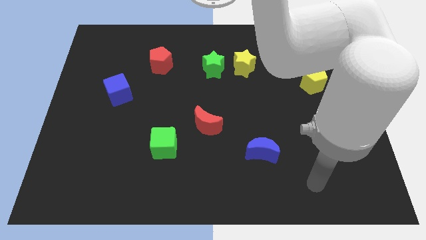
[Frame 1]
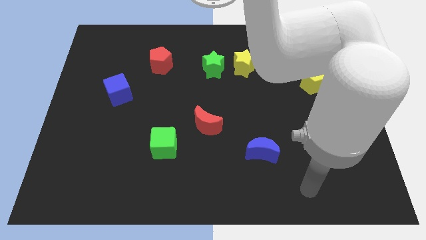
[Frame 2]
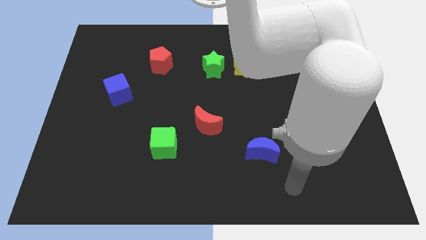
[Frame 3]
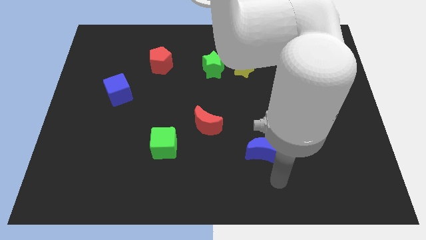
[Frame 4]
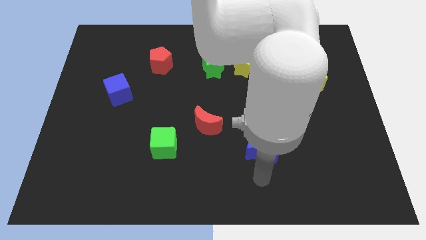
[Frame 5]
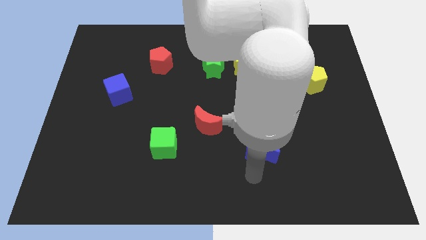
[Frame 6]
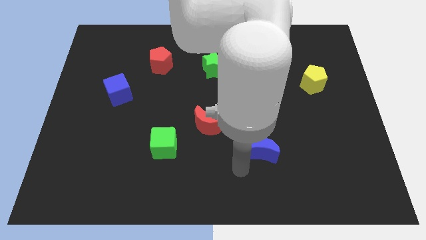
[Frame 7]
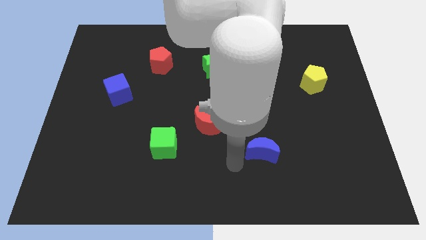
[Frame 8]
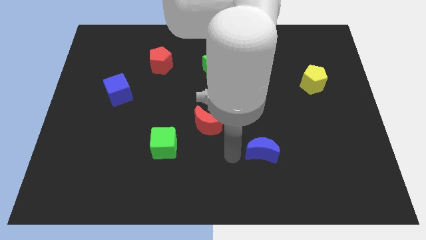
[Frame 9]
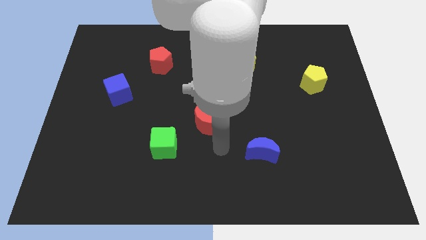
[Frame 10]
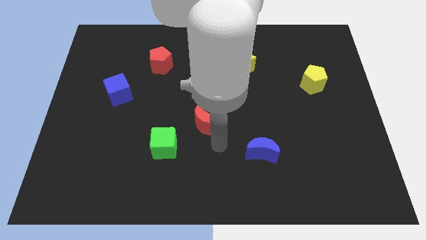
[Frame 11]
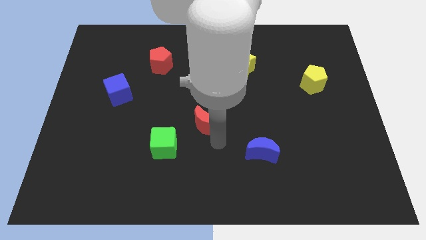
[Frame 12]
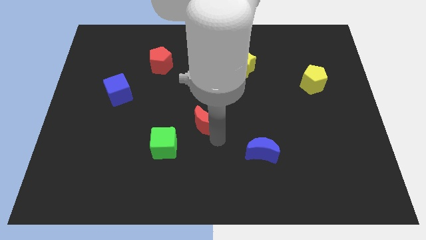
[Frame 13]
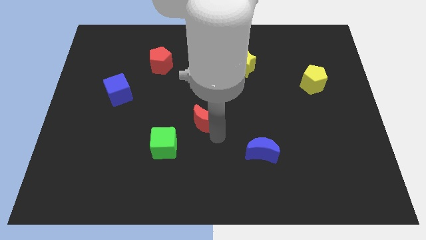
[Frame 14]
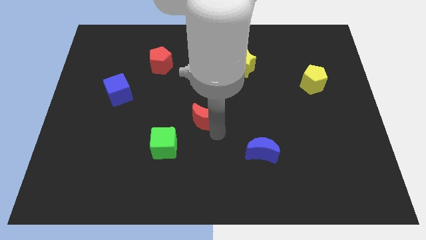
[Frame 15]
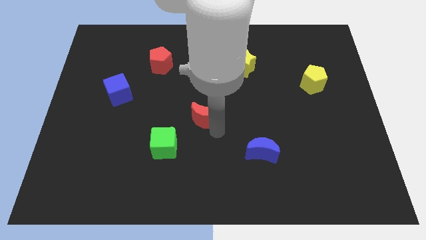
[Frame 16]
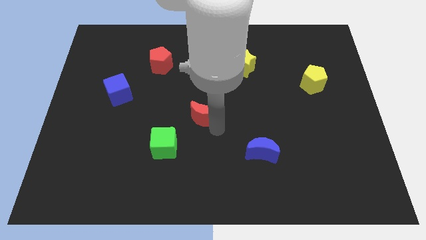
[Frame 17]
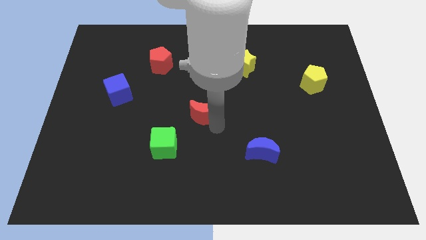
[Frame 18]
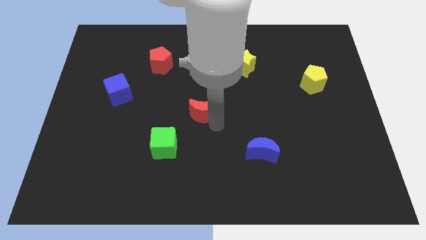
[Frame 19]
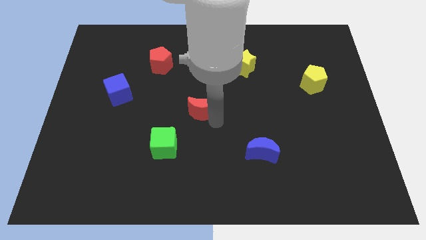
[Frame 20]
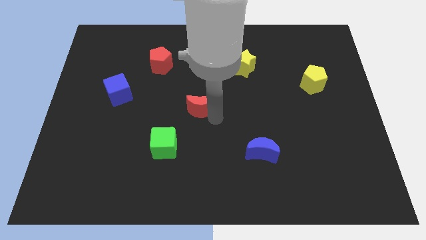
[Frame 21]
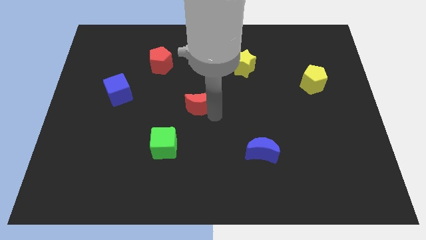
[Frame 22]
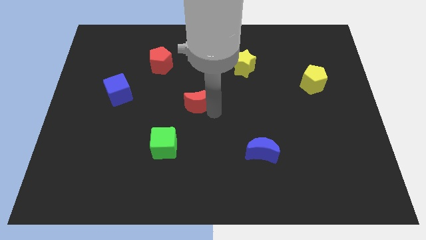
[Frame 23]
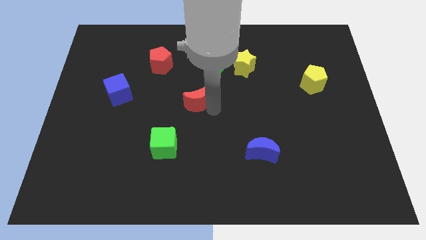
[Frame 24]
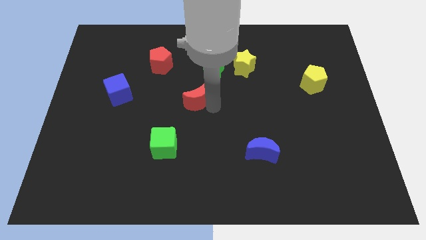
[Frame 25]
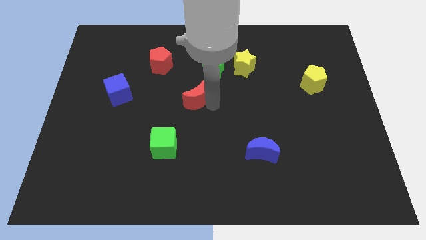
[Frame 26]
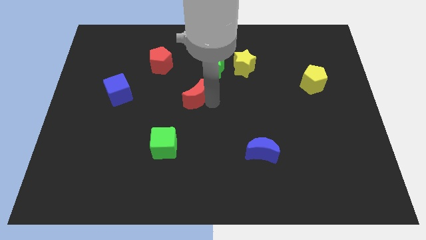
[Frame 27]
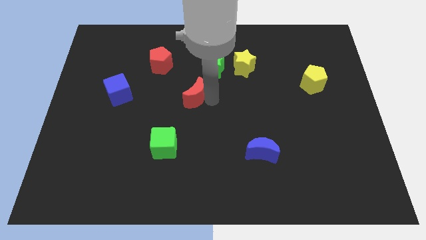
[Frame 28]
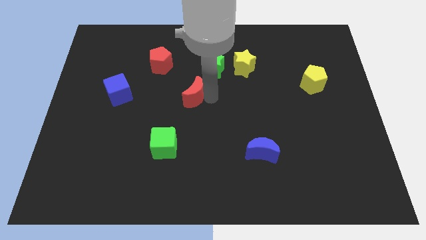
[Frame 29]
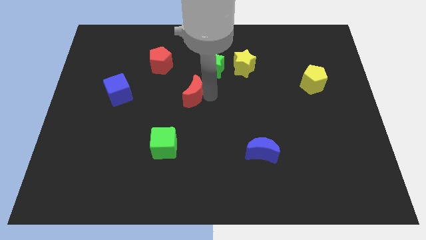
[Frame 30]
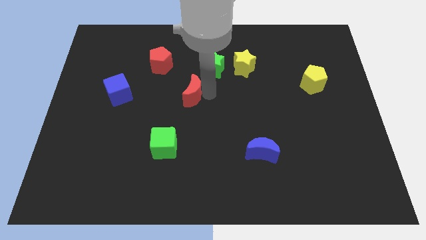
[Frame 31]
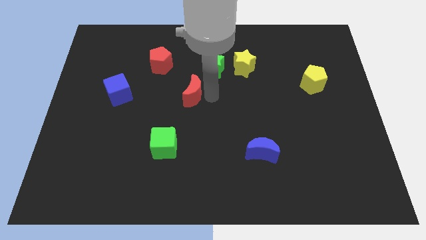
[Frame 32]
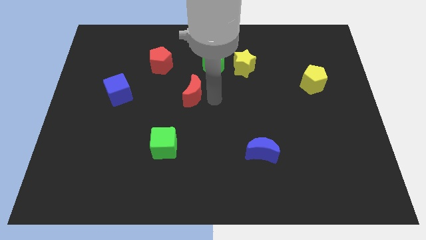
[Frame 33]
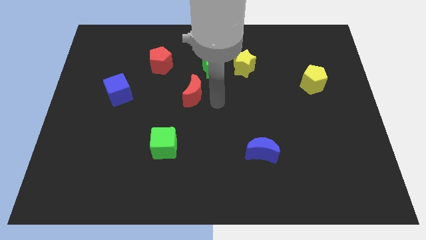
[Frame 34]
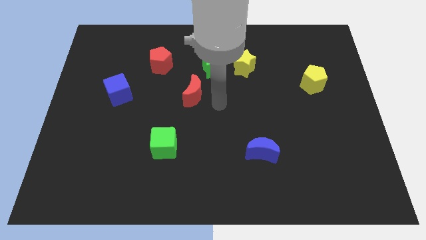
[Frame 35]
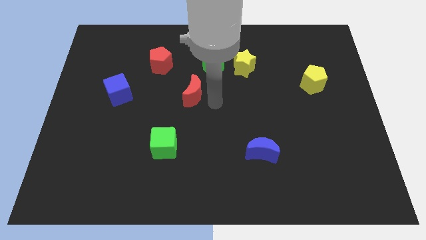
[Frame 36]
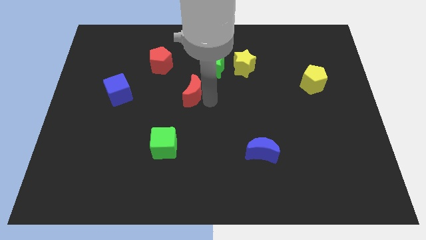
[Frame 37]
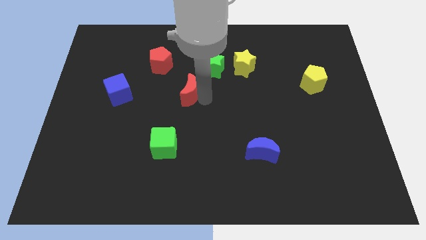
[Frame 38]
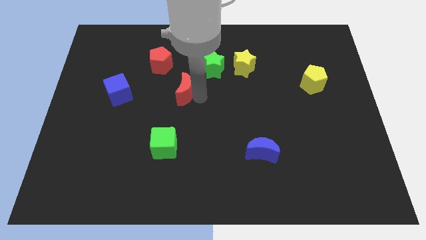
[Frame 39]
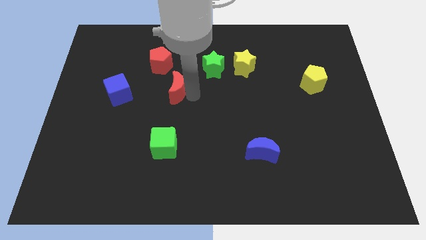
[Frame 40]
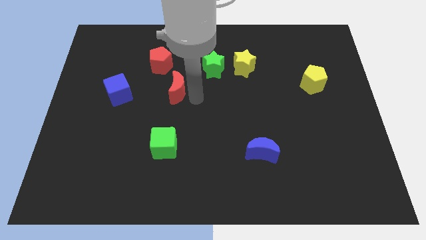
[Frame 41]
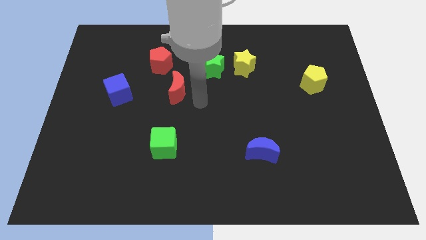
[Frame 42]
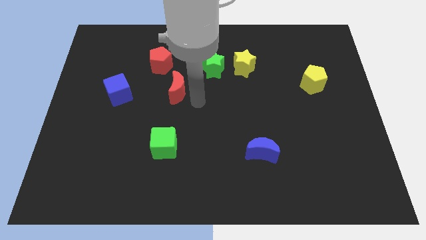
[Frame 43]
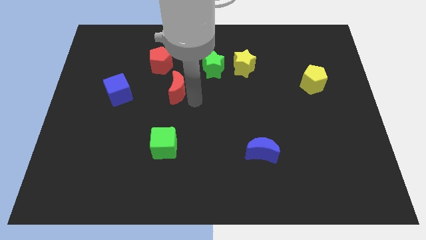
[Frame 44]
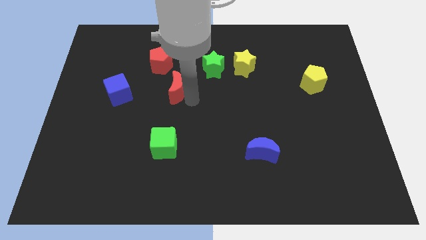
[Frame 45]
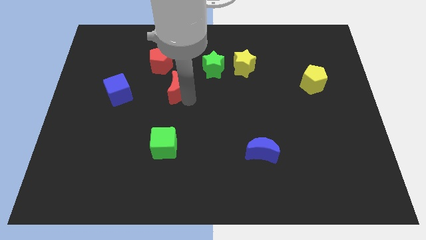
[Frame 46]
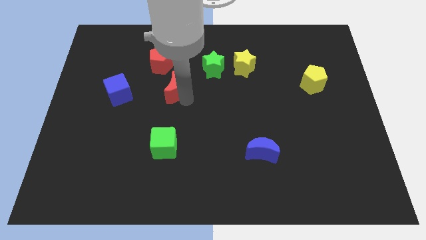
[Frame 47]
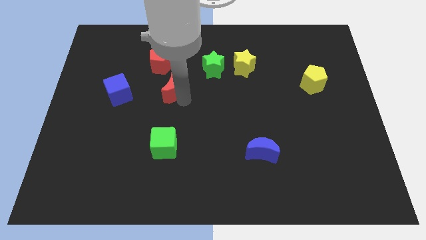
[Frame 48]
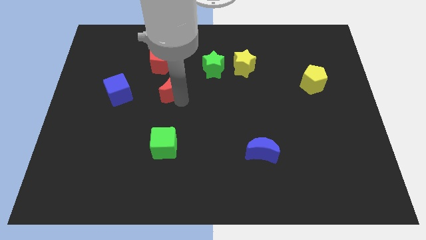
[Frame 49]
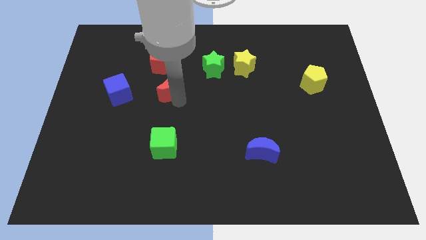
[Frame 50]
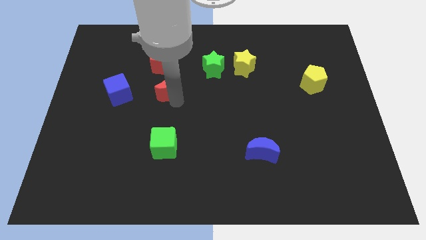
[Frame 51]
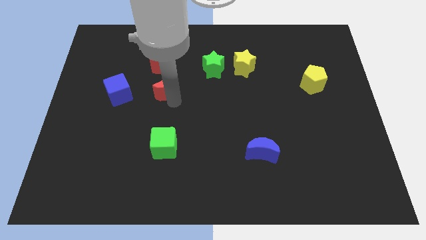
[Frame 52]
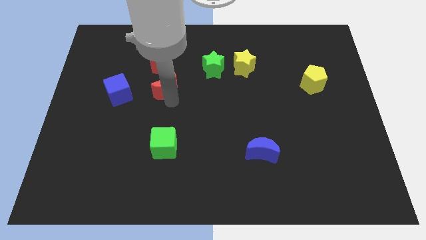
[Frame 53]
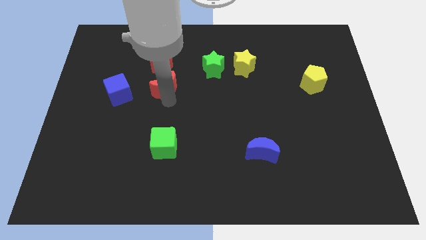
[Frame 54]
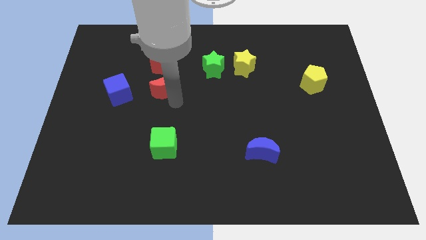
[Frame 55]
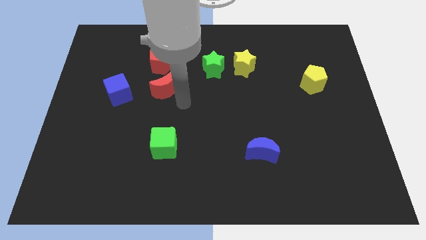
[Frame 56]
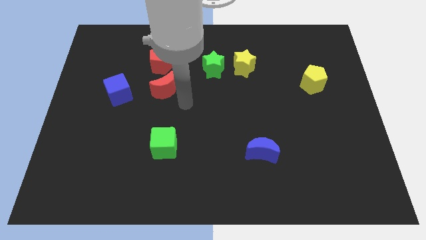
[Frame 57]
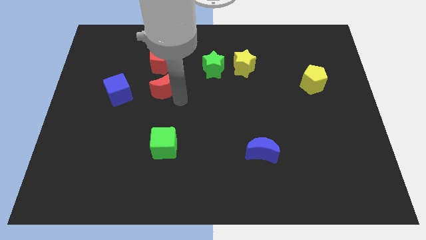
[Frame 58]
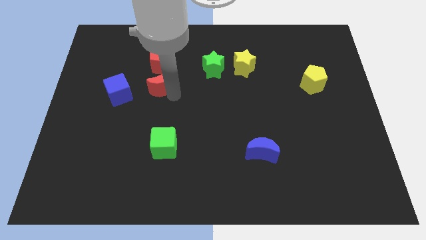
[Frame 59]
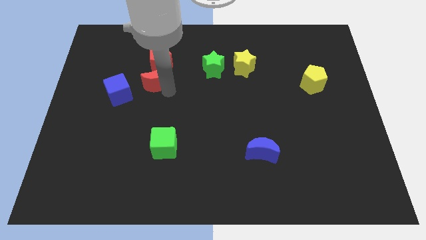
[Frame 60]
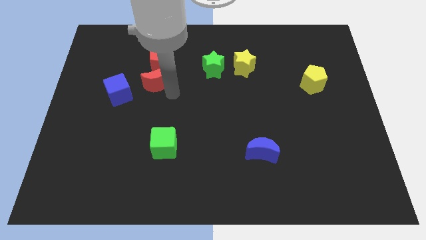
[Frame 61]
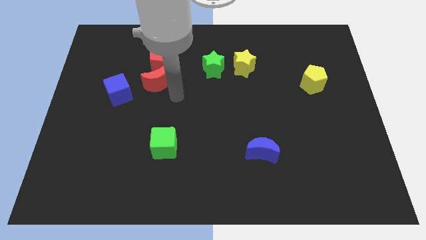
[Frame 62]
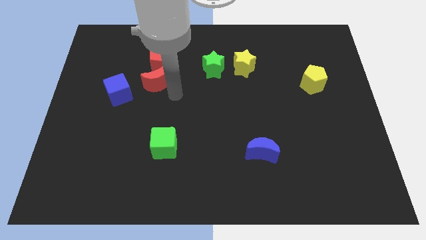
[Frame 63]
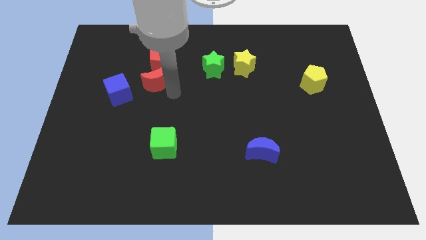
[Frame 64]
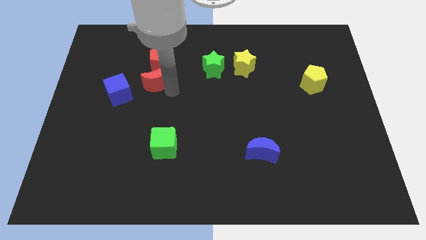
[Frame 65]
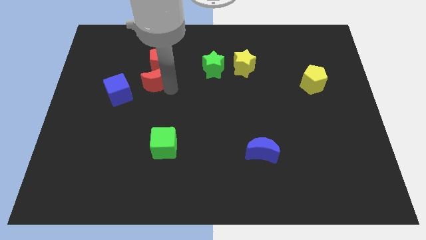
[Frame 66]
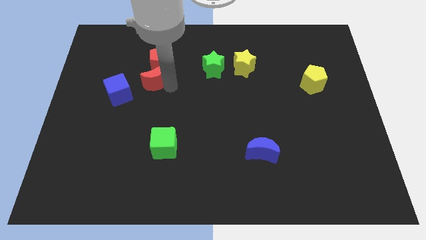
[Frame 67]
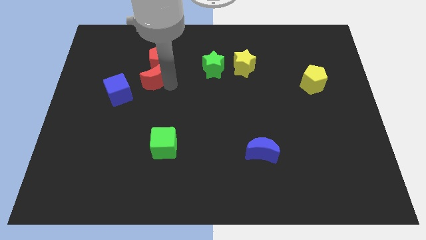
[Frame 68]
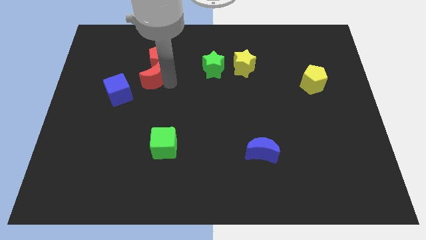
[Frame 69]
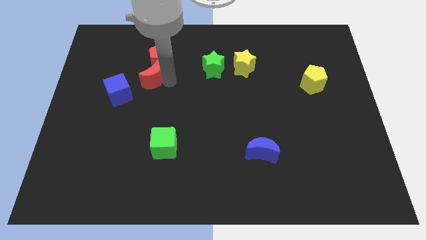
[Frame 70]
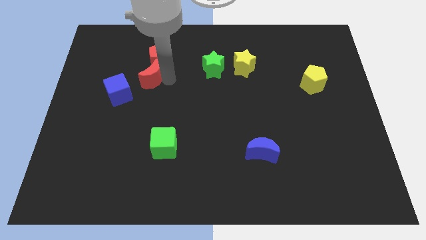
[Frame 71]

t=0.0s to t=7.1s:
move the red moon upwards and left

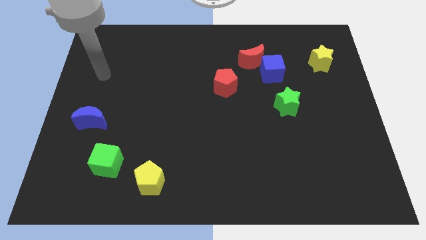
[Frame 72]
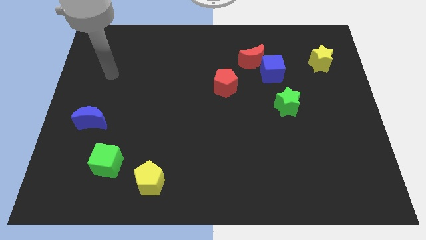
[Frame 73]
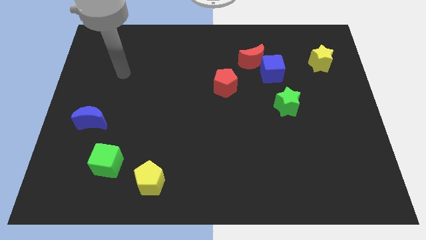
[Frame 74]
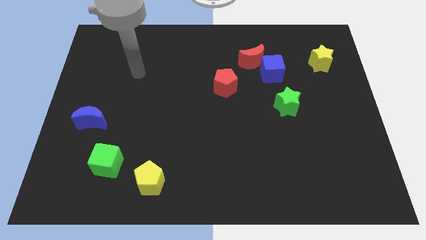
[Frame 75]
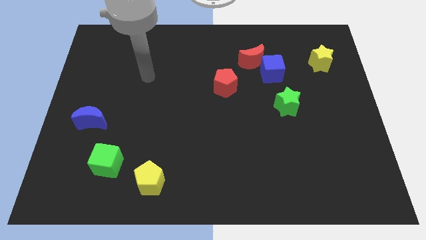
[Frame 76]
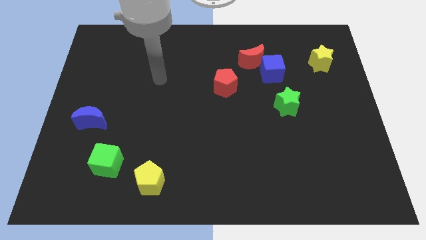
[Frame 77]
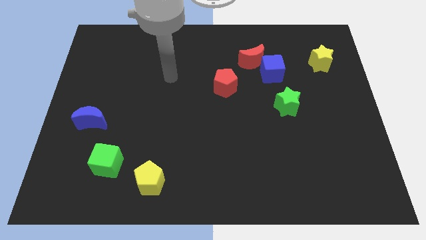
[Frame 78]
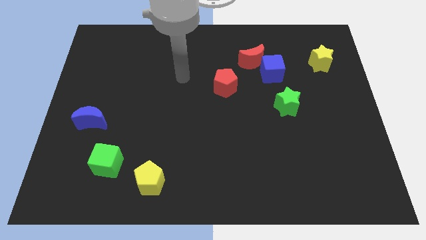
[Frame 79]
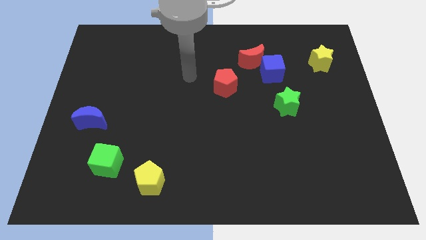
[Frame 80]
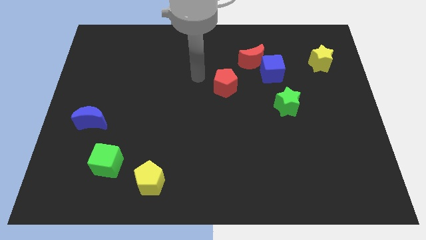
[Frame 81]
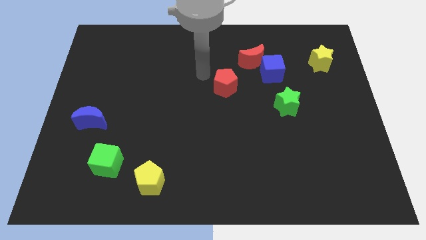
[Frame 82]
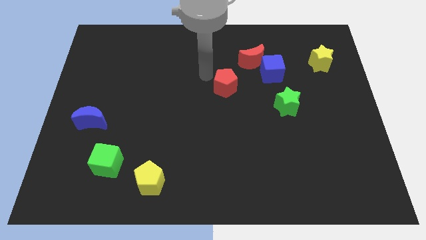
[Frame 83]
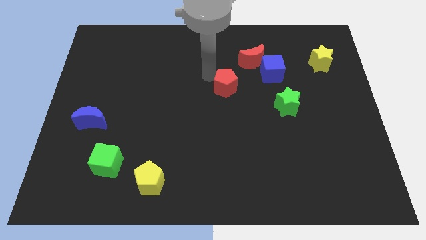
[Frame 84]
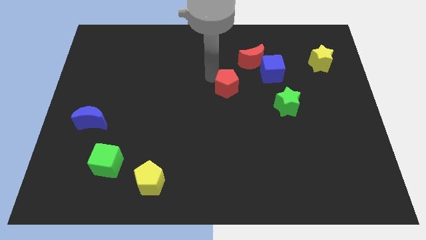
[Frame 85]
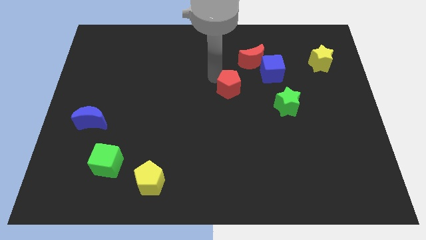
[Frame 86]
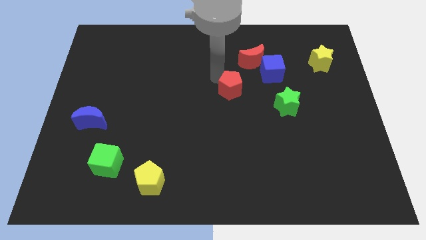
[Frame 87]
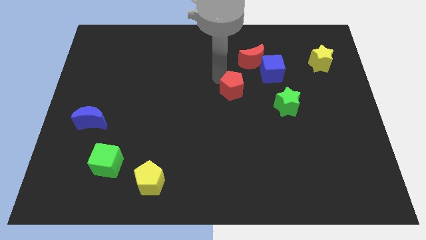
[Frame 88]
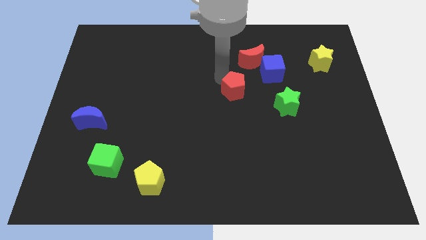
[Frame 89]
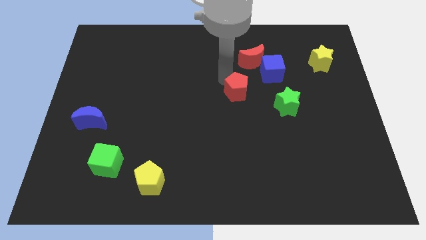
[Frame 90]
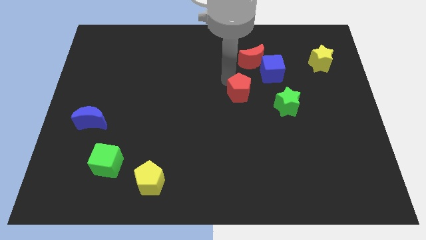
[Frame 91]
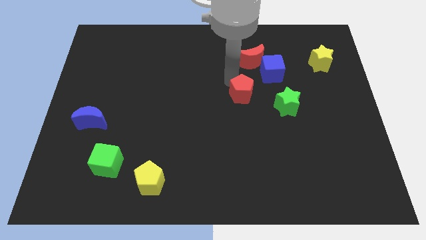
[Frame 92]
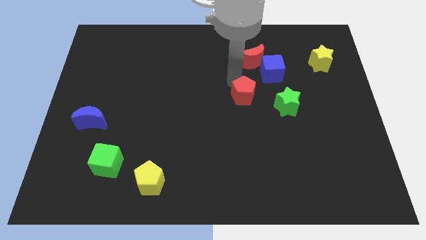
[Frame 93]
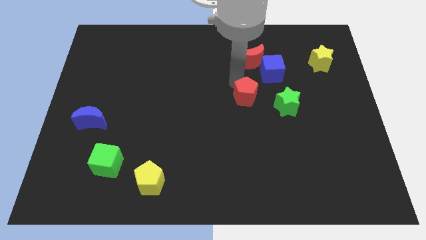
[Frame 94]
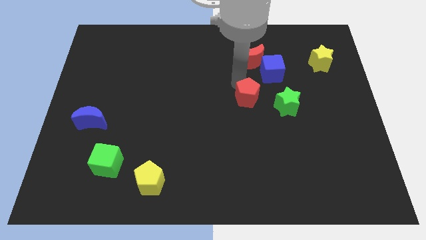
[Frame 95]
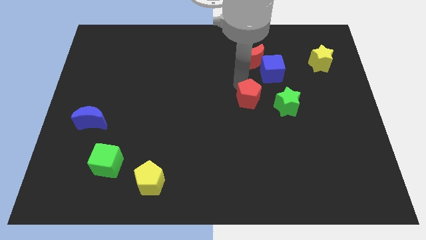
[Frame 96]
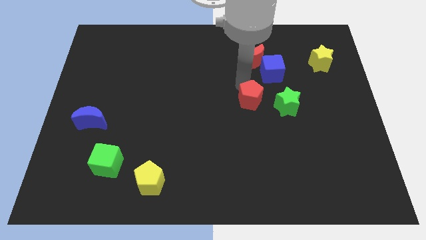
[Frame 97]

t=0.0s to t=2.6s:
push the red pentagon a little bit diagonally downwards and right
